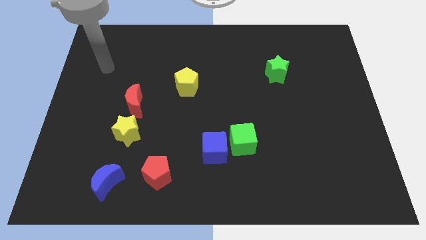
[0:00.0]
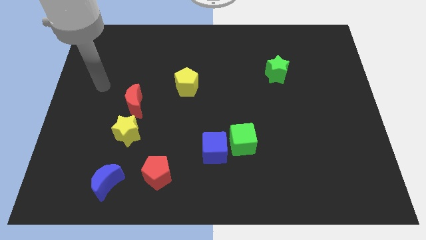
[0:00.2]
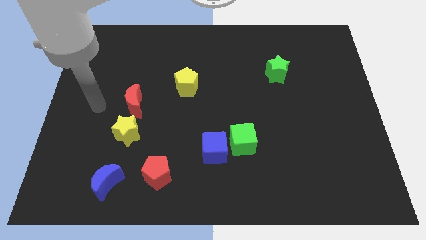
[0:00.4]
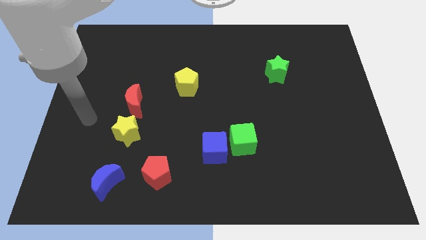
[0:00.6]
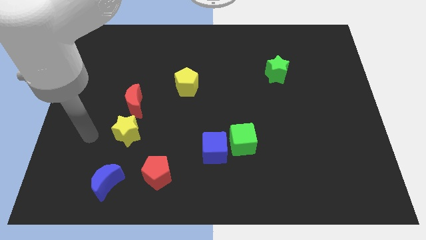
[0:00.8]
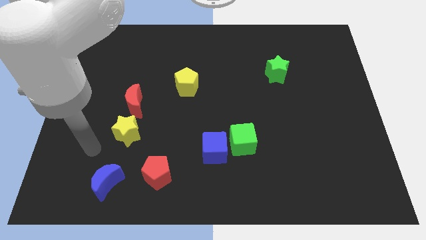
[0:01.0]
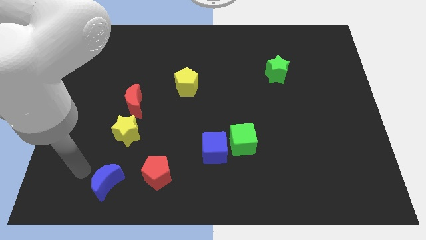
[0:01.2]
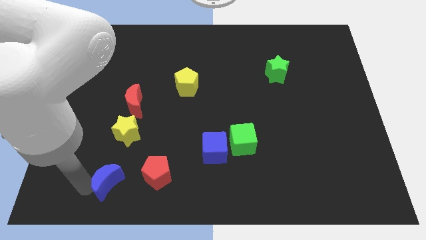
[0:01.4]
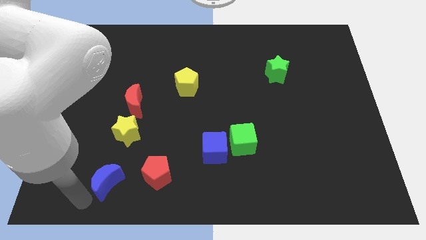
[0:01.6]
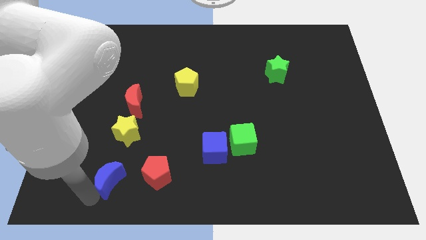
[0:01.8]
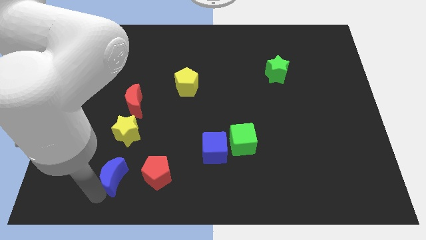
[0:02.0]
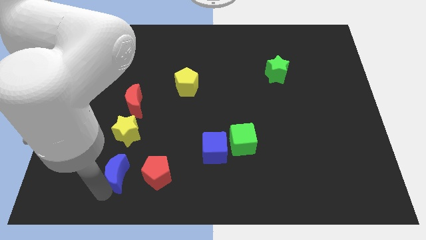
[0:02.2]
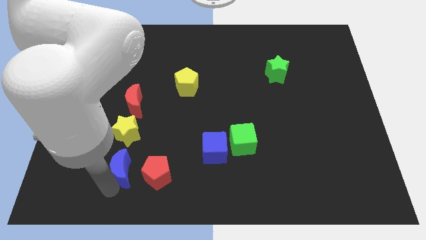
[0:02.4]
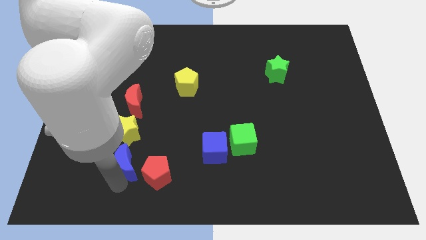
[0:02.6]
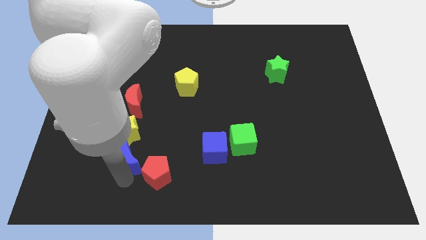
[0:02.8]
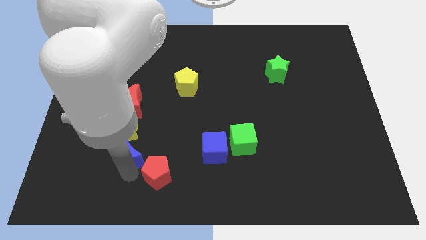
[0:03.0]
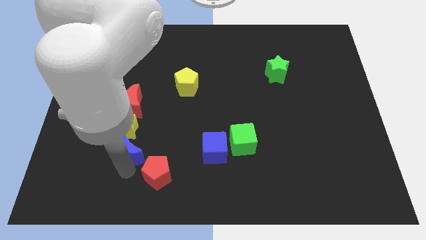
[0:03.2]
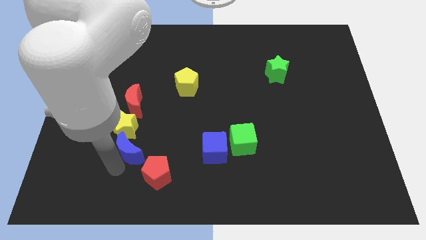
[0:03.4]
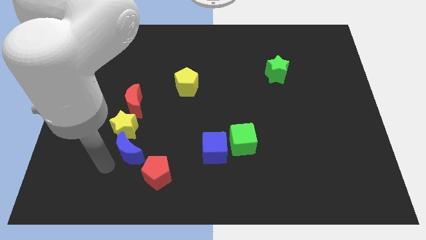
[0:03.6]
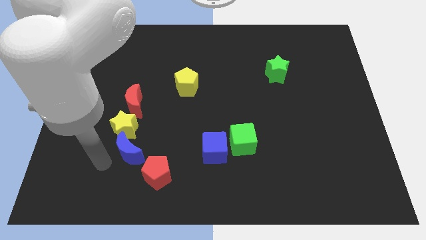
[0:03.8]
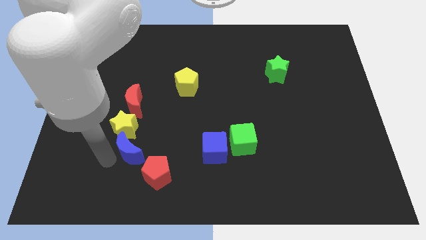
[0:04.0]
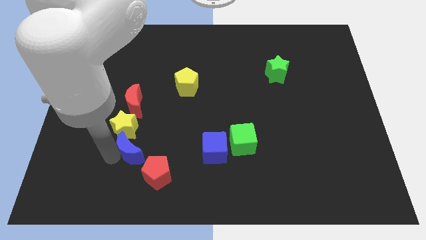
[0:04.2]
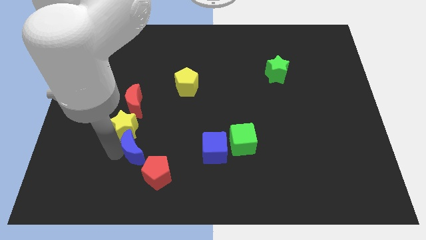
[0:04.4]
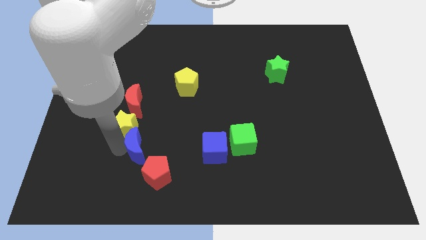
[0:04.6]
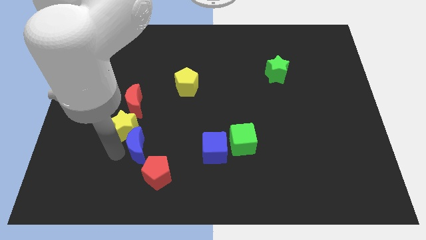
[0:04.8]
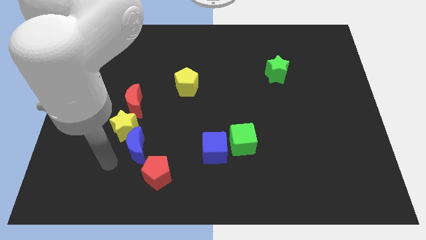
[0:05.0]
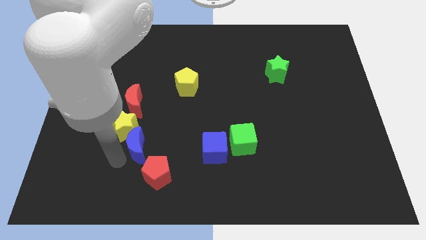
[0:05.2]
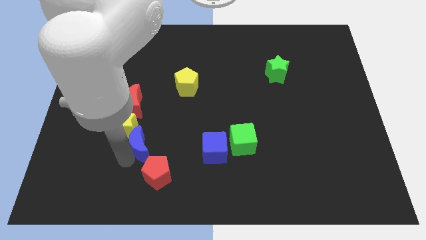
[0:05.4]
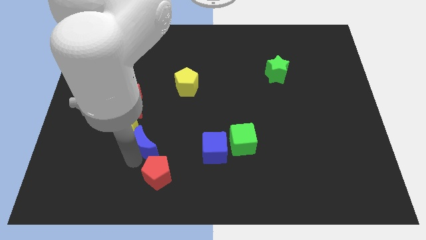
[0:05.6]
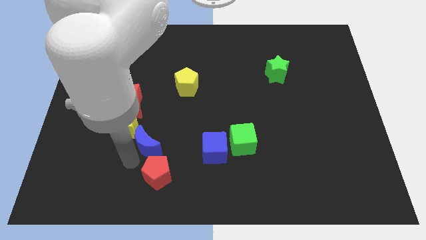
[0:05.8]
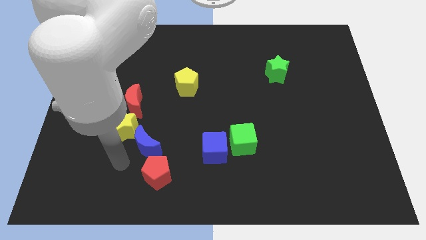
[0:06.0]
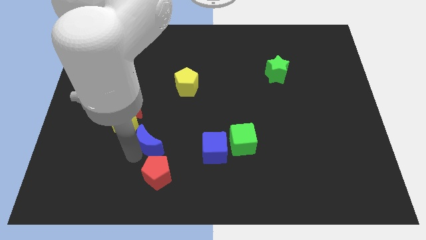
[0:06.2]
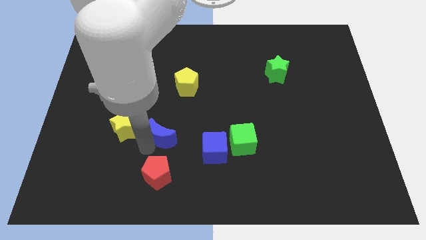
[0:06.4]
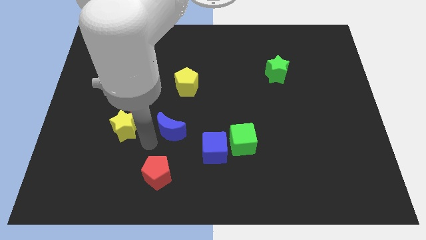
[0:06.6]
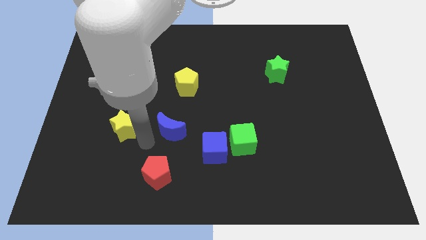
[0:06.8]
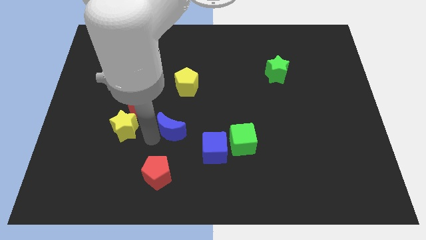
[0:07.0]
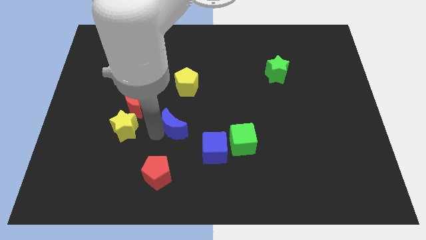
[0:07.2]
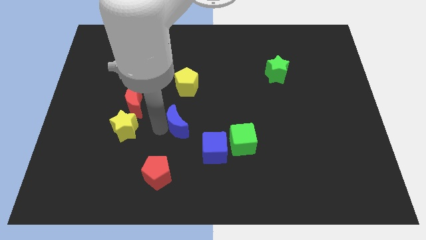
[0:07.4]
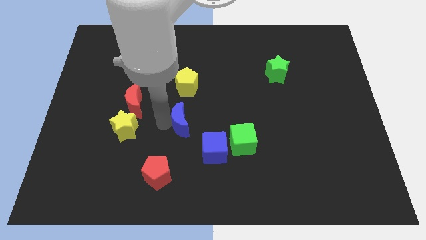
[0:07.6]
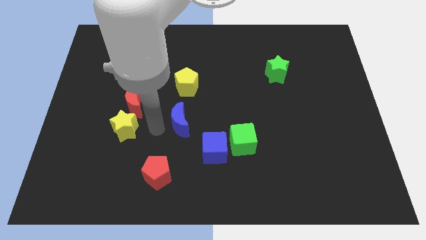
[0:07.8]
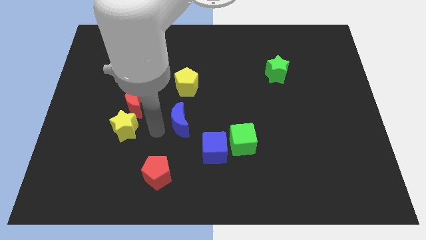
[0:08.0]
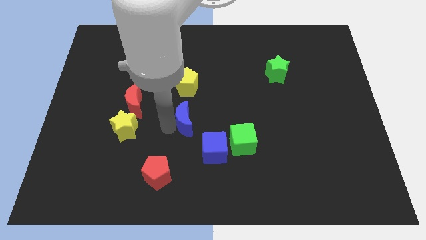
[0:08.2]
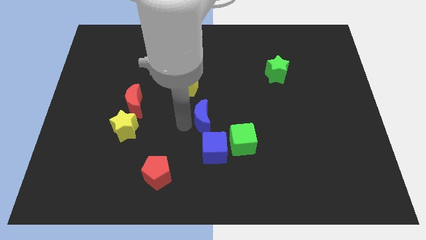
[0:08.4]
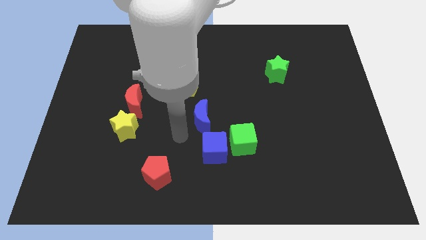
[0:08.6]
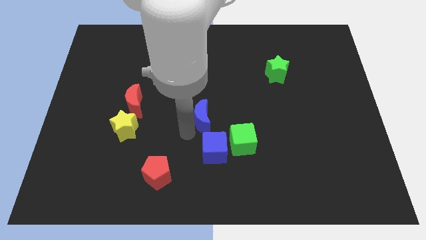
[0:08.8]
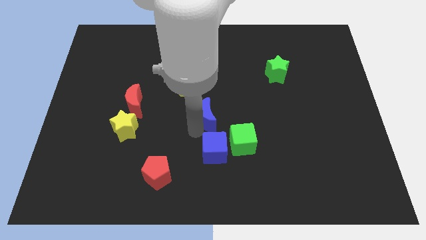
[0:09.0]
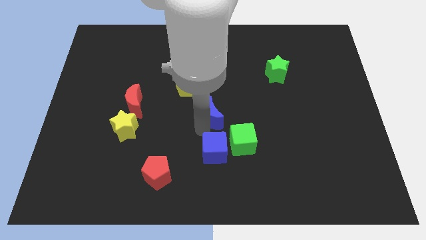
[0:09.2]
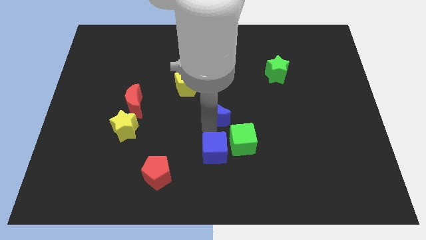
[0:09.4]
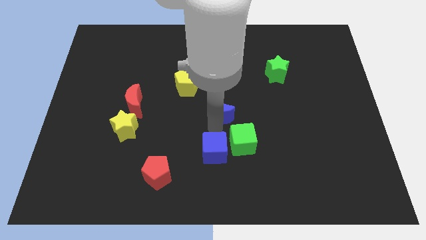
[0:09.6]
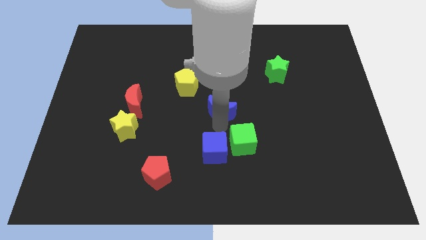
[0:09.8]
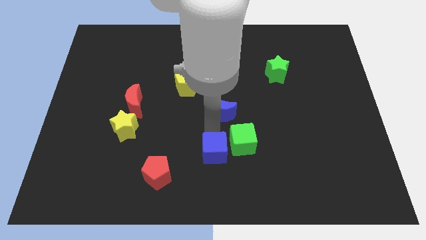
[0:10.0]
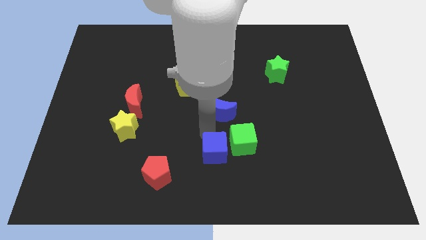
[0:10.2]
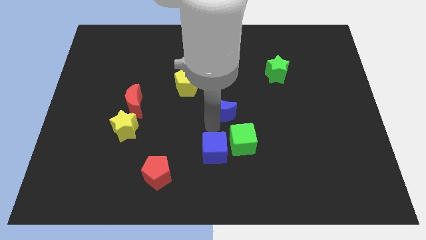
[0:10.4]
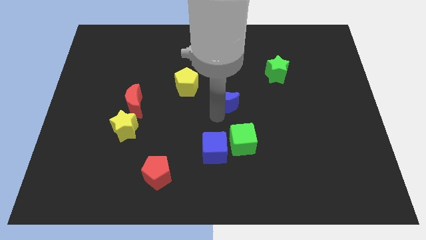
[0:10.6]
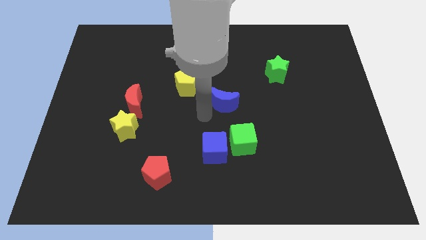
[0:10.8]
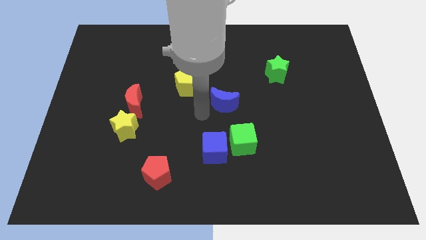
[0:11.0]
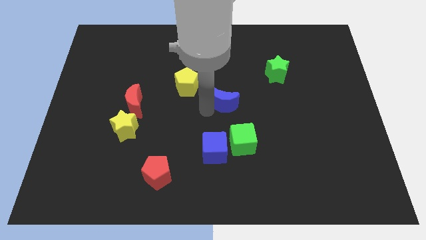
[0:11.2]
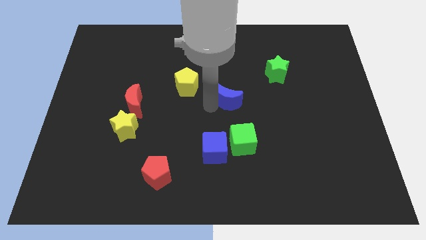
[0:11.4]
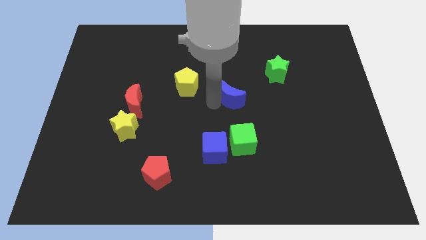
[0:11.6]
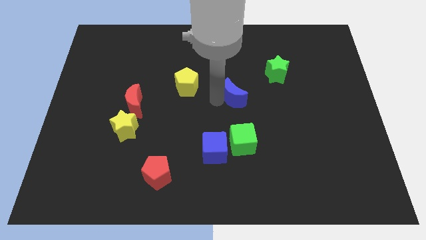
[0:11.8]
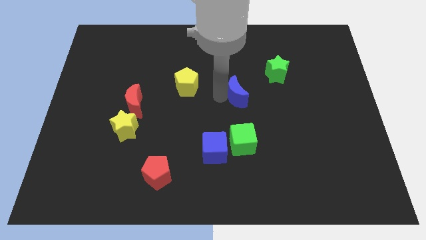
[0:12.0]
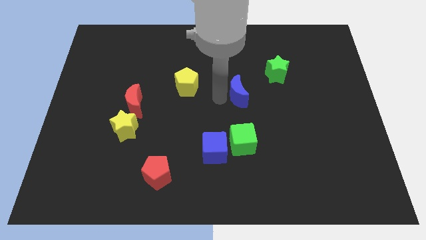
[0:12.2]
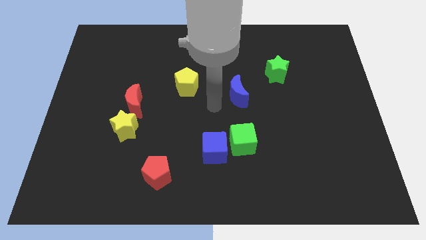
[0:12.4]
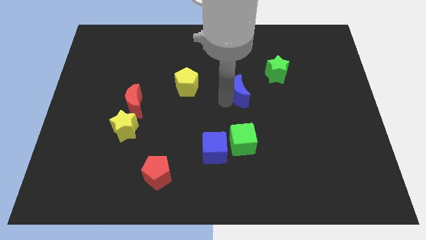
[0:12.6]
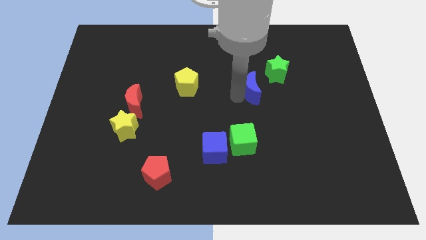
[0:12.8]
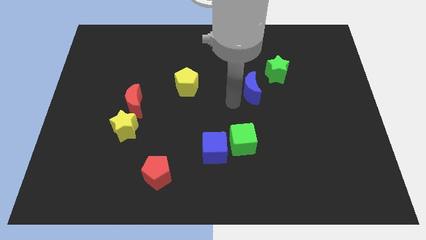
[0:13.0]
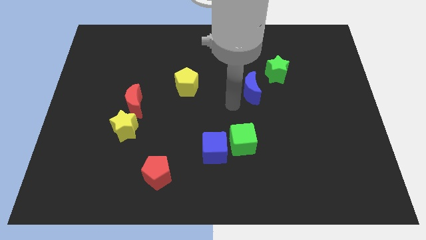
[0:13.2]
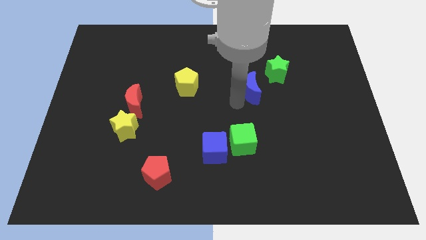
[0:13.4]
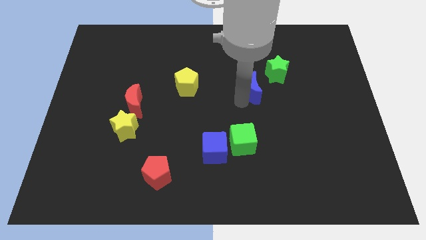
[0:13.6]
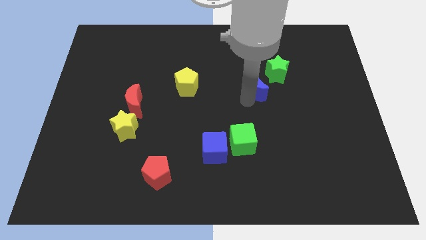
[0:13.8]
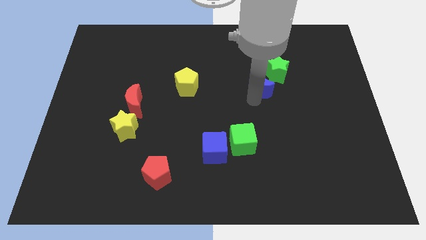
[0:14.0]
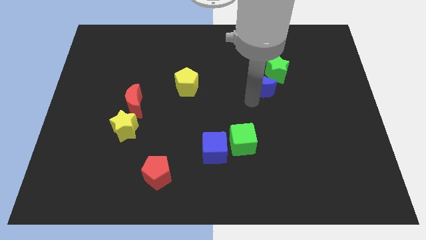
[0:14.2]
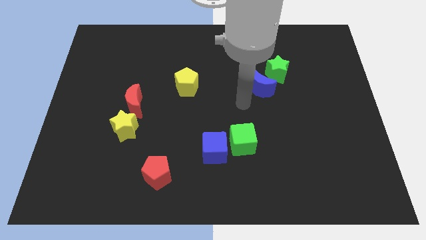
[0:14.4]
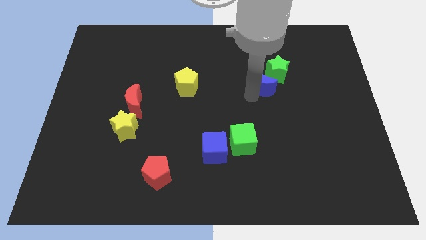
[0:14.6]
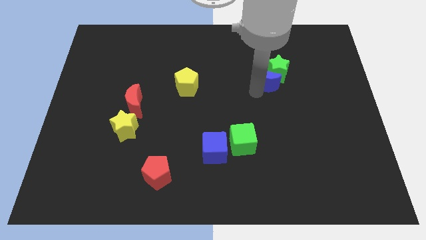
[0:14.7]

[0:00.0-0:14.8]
move the blue moon towards the green star
